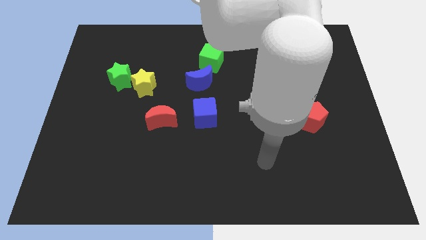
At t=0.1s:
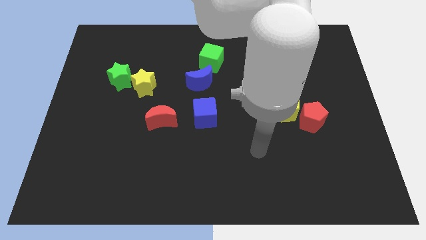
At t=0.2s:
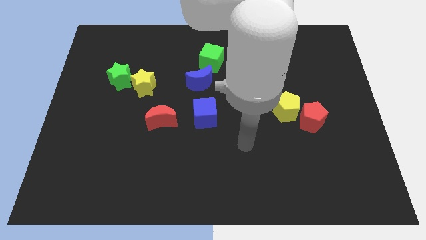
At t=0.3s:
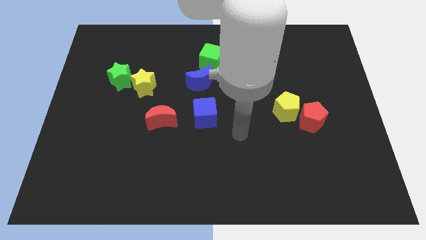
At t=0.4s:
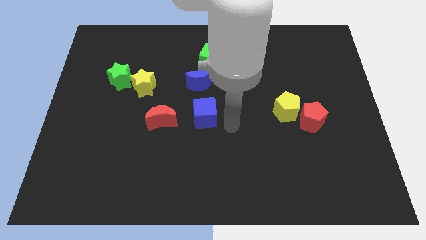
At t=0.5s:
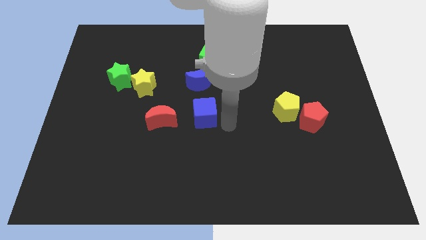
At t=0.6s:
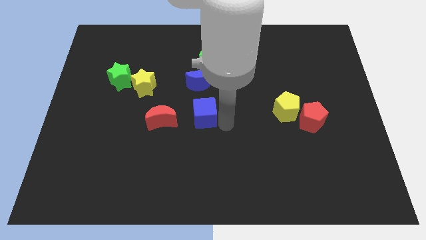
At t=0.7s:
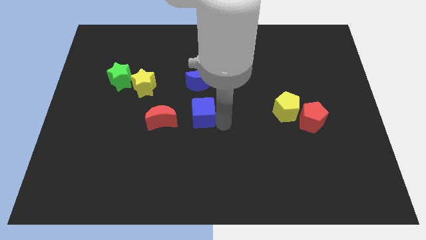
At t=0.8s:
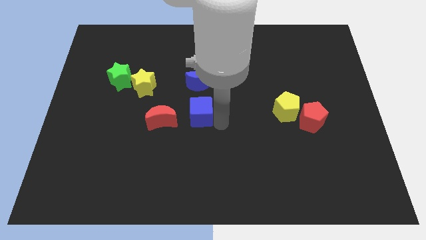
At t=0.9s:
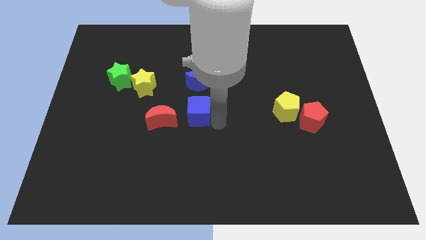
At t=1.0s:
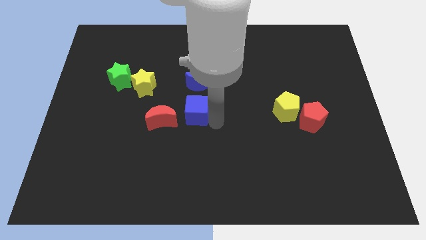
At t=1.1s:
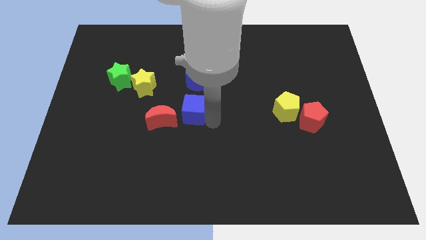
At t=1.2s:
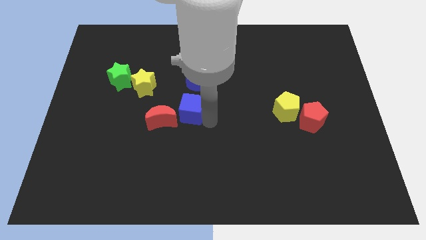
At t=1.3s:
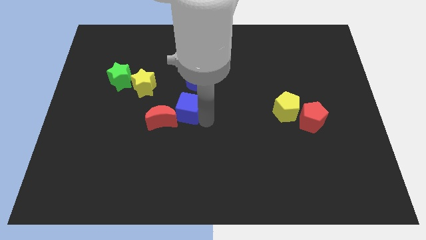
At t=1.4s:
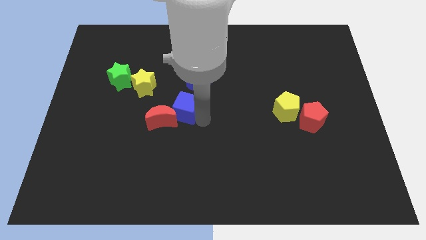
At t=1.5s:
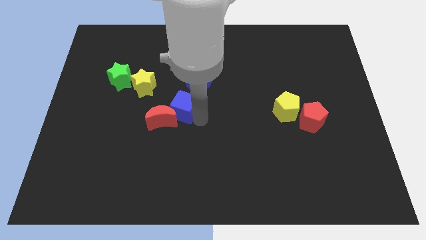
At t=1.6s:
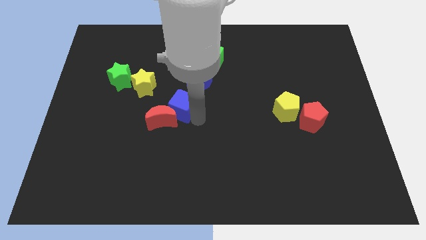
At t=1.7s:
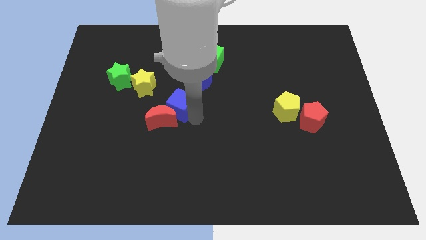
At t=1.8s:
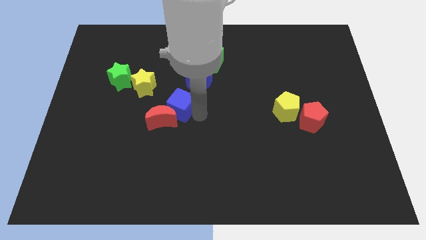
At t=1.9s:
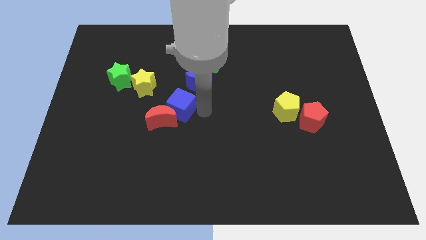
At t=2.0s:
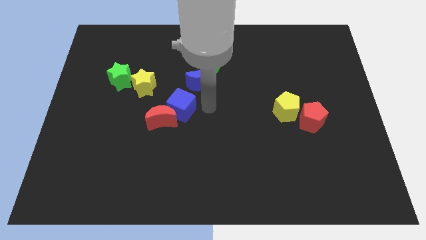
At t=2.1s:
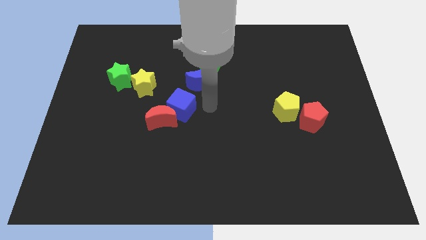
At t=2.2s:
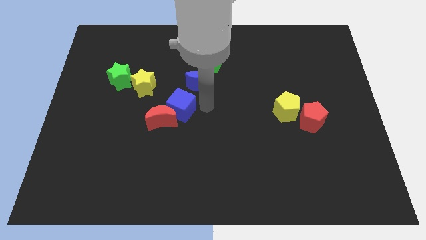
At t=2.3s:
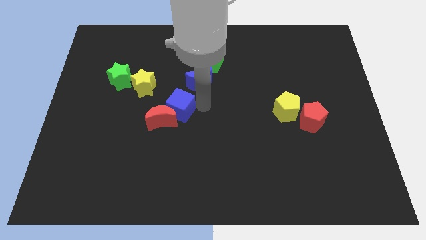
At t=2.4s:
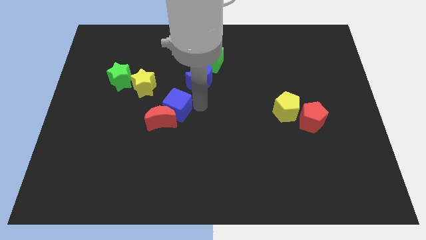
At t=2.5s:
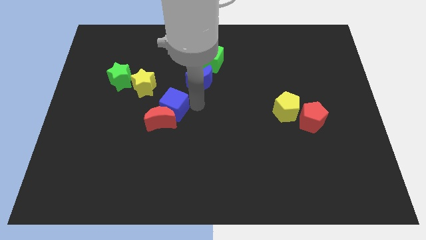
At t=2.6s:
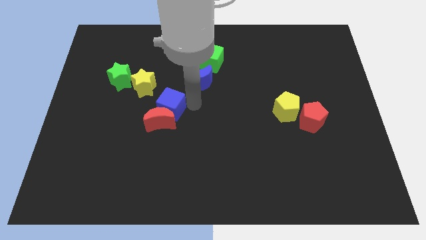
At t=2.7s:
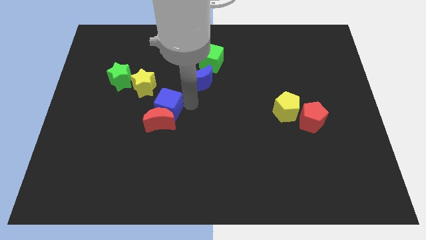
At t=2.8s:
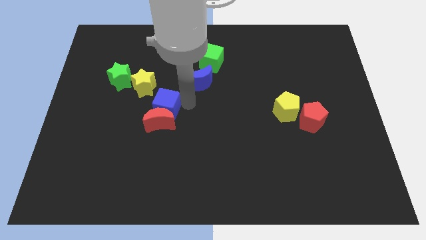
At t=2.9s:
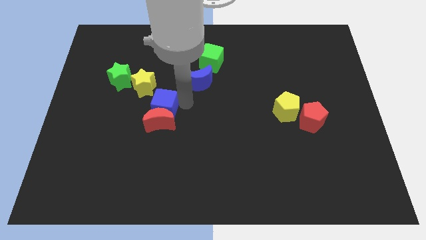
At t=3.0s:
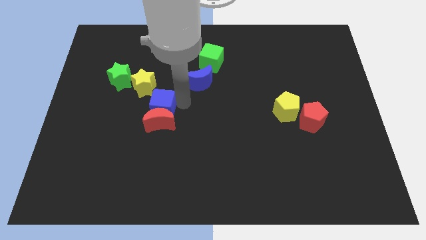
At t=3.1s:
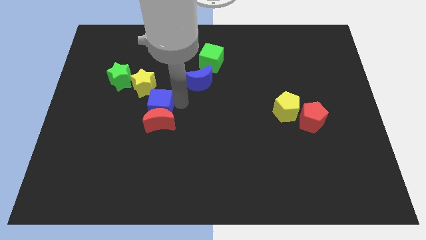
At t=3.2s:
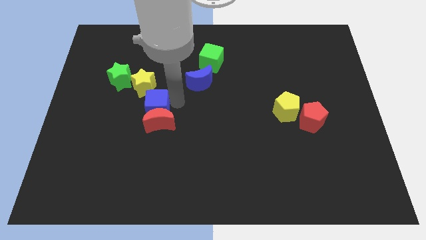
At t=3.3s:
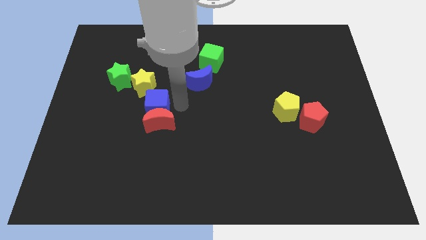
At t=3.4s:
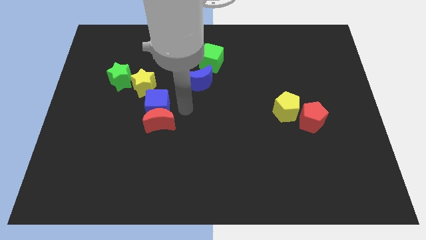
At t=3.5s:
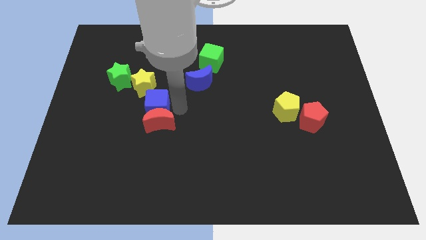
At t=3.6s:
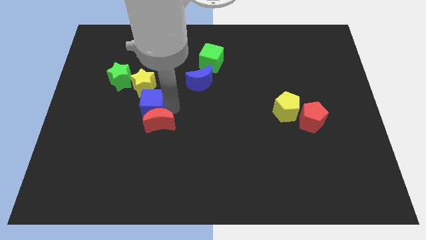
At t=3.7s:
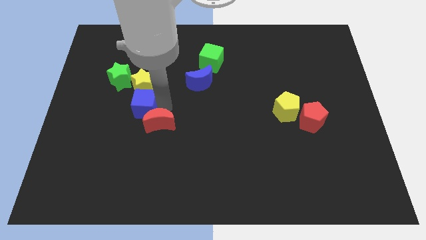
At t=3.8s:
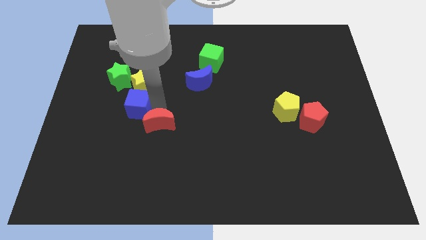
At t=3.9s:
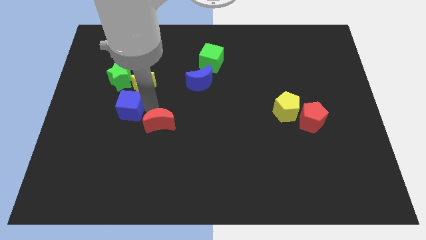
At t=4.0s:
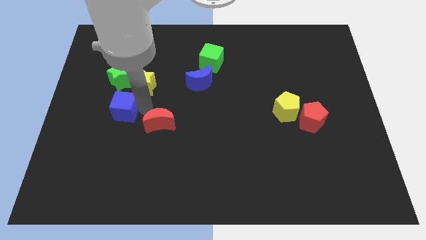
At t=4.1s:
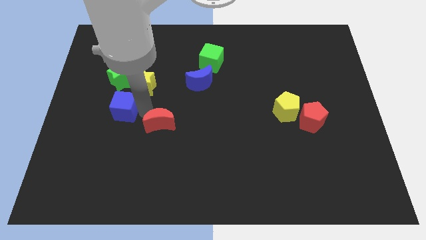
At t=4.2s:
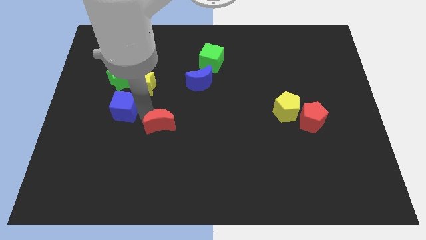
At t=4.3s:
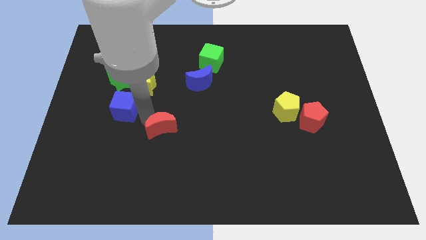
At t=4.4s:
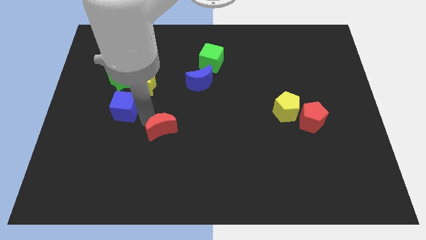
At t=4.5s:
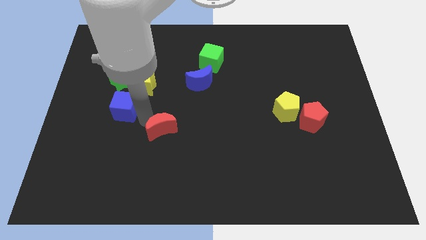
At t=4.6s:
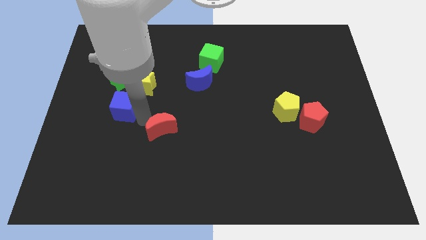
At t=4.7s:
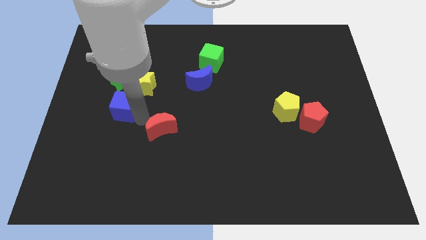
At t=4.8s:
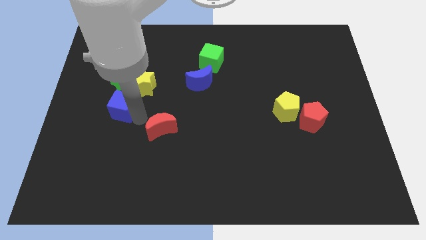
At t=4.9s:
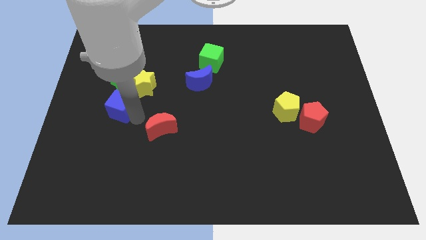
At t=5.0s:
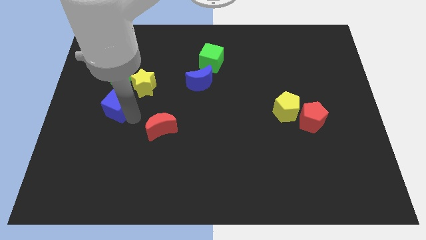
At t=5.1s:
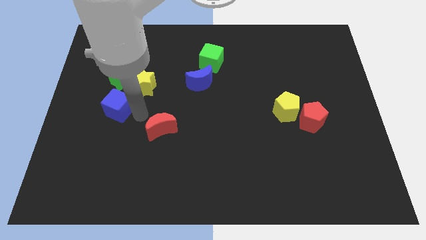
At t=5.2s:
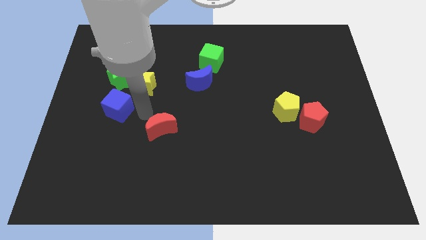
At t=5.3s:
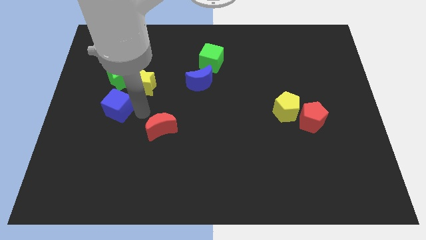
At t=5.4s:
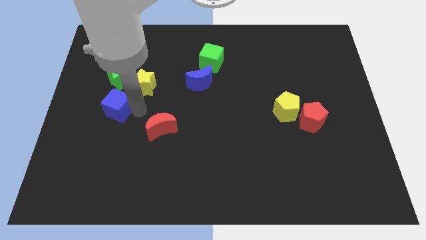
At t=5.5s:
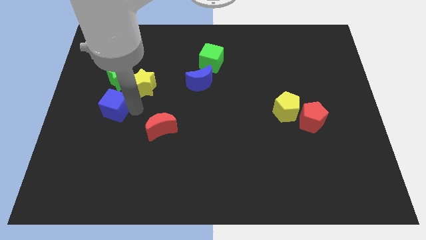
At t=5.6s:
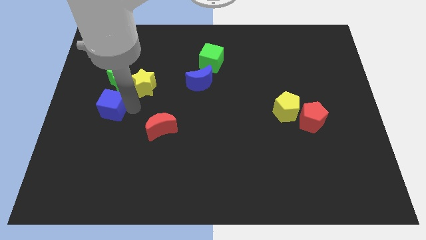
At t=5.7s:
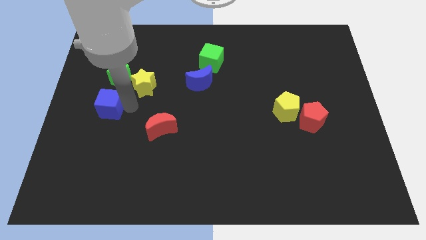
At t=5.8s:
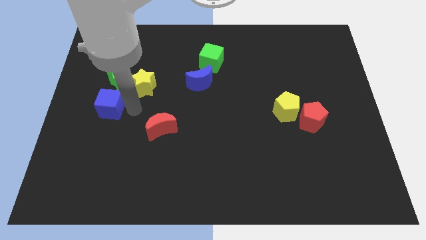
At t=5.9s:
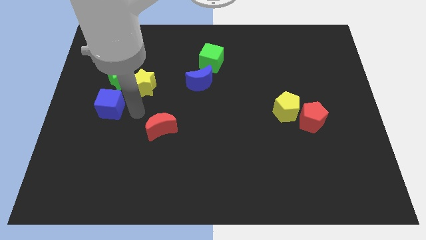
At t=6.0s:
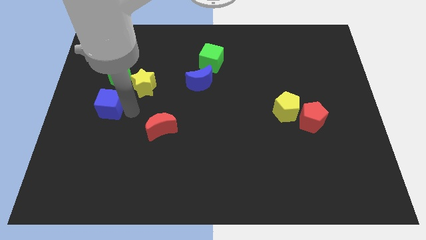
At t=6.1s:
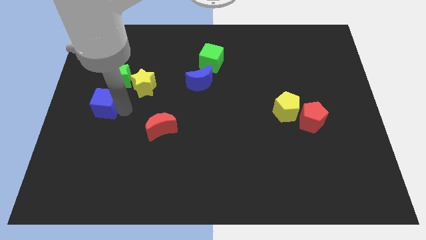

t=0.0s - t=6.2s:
put the blue cube to the center left

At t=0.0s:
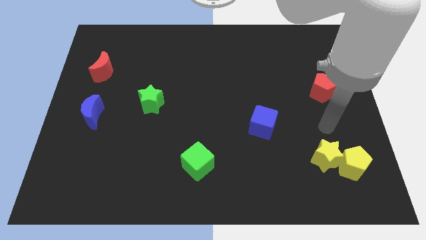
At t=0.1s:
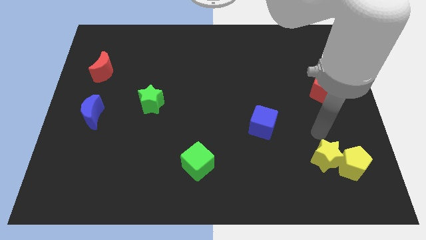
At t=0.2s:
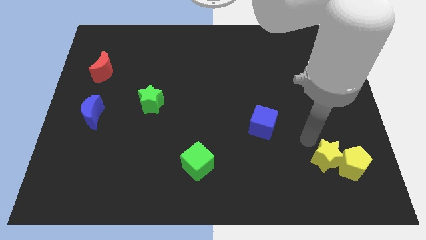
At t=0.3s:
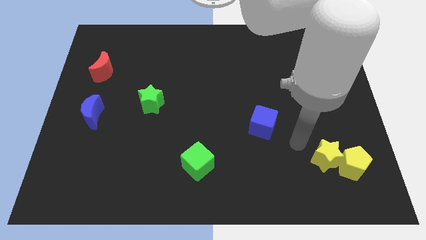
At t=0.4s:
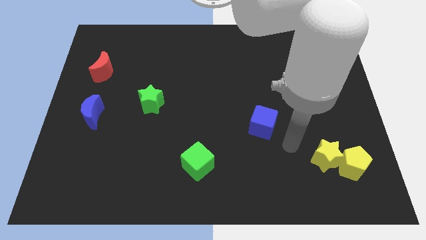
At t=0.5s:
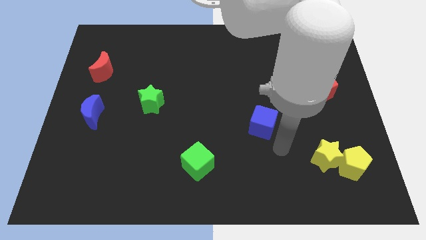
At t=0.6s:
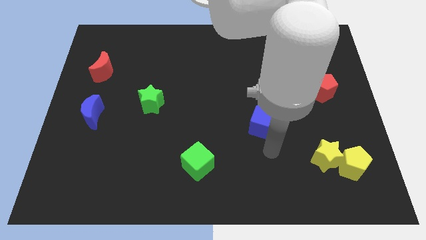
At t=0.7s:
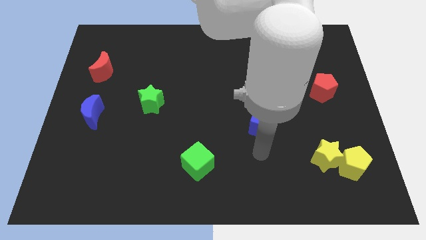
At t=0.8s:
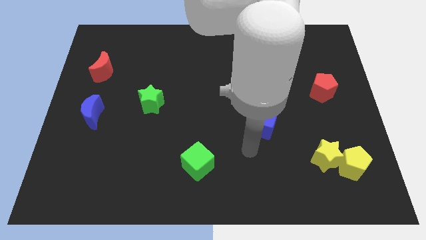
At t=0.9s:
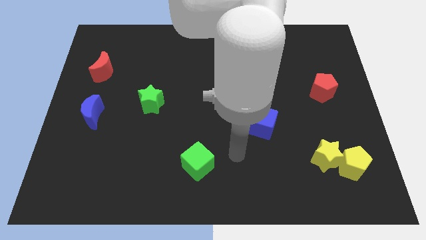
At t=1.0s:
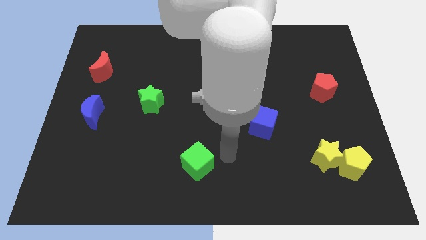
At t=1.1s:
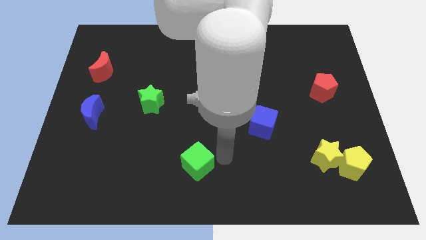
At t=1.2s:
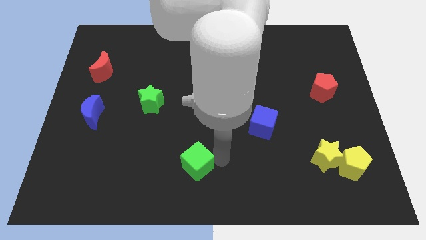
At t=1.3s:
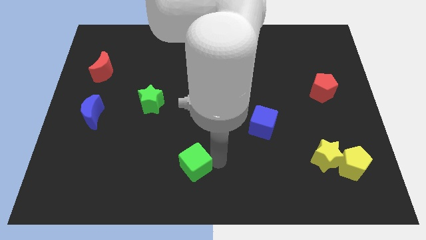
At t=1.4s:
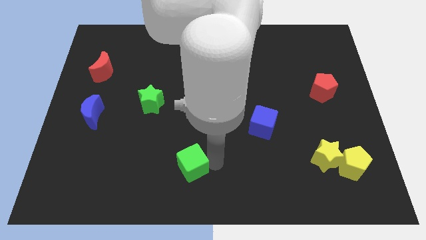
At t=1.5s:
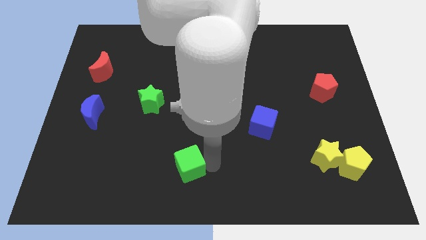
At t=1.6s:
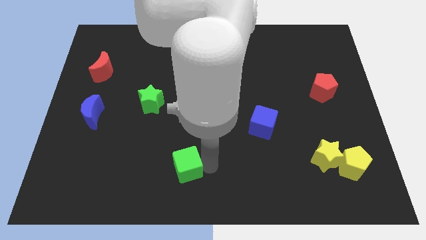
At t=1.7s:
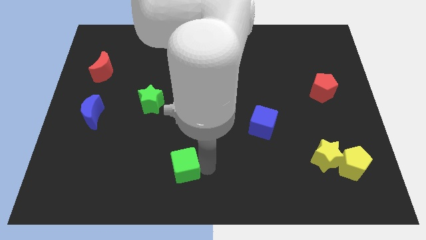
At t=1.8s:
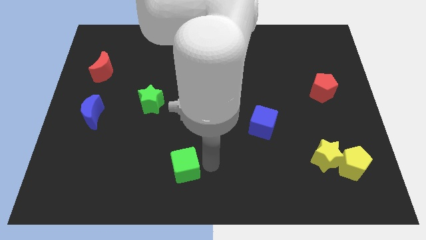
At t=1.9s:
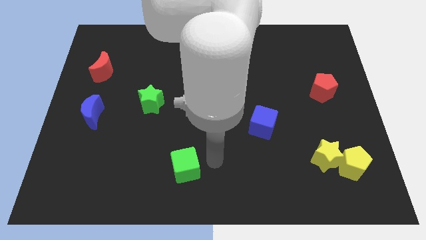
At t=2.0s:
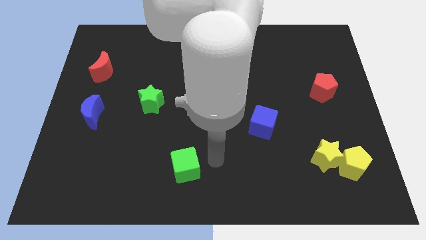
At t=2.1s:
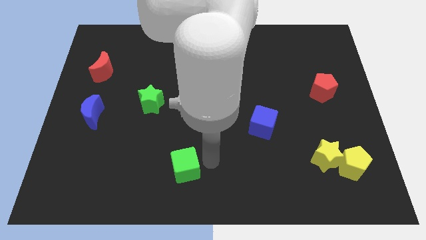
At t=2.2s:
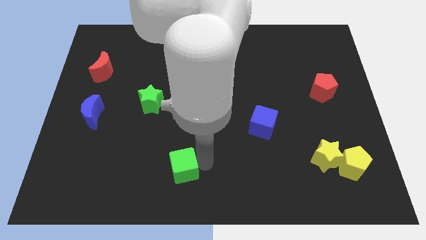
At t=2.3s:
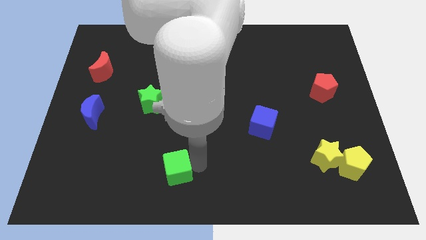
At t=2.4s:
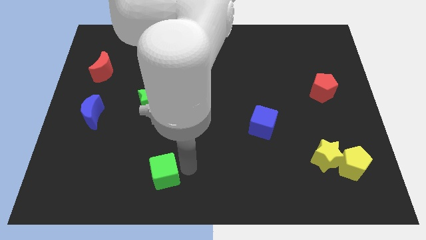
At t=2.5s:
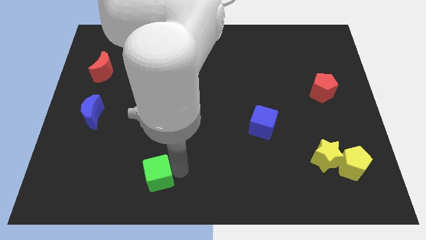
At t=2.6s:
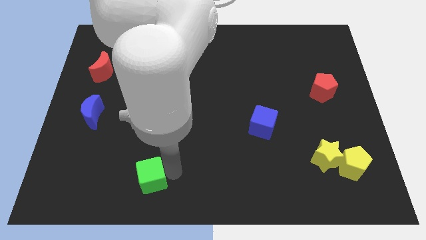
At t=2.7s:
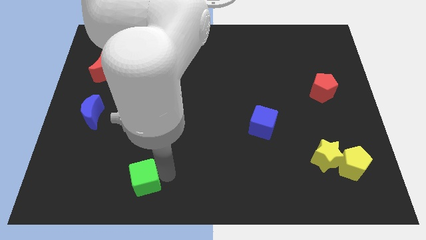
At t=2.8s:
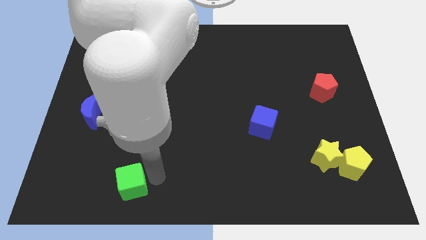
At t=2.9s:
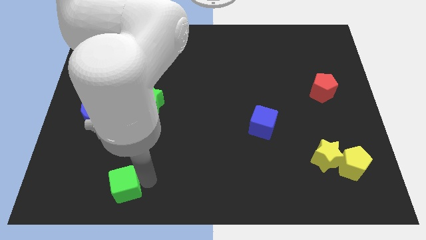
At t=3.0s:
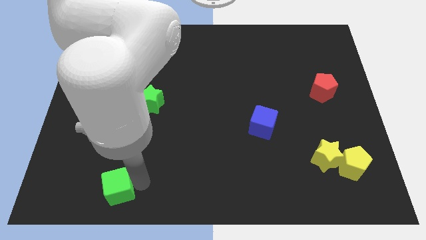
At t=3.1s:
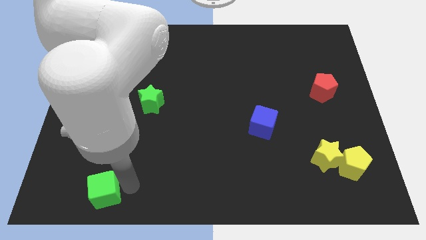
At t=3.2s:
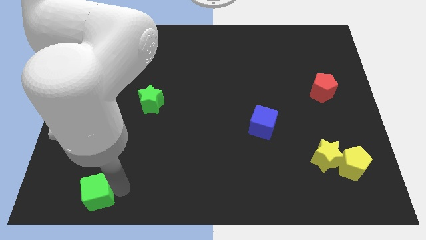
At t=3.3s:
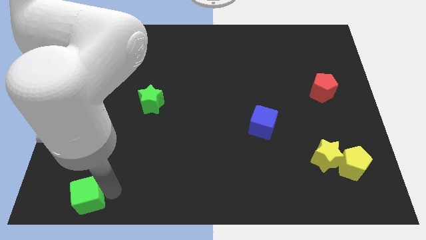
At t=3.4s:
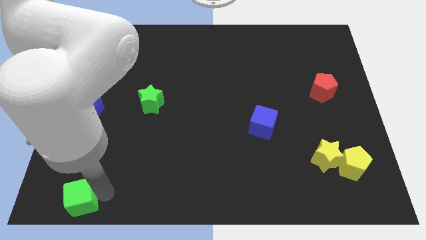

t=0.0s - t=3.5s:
put the green cube to the bottom left corner
